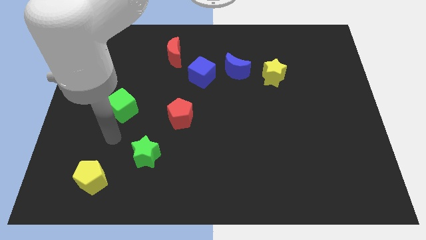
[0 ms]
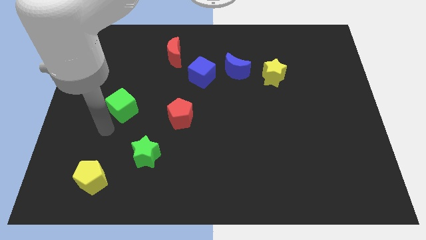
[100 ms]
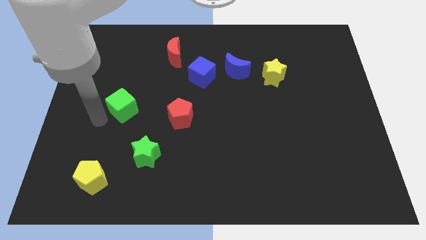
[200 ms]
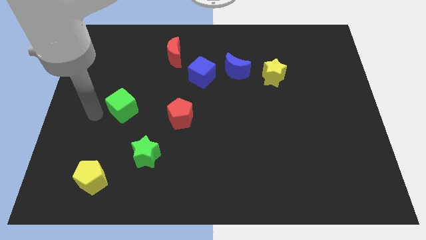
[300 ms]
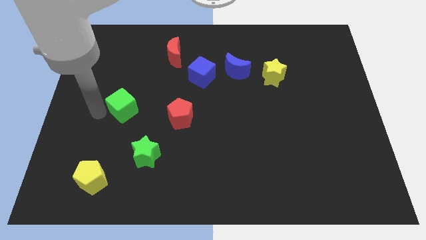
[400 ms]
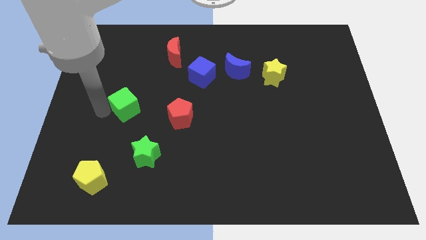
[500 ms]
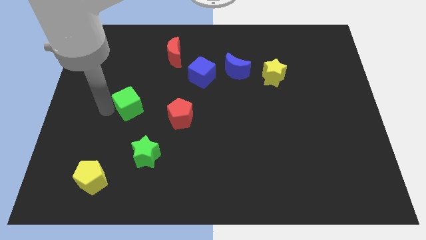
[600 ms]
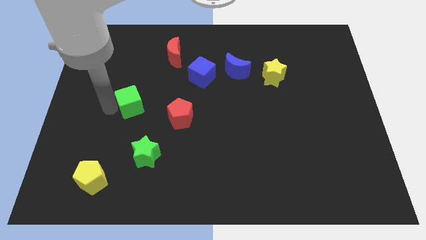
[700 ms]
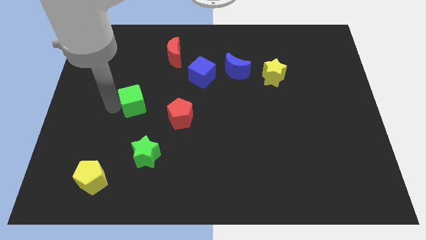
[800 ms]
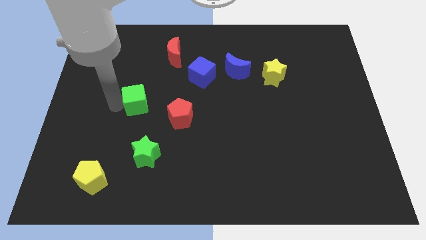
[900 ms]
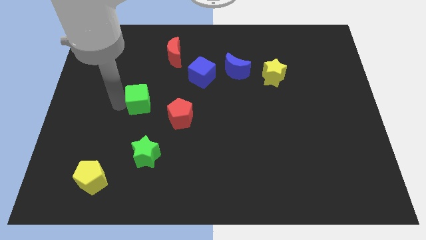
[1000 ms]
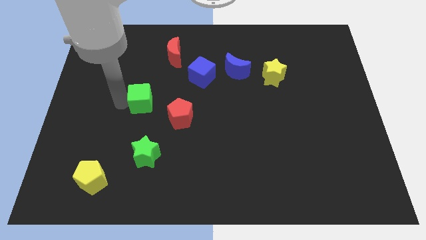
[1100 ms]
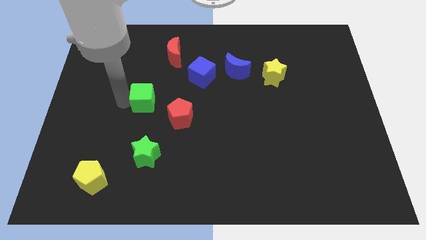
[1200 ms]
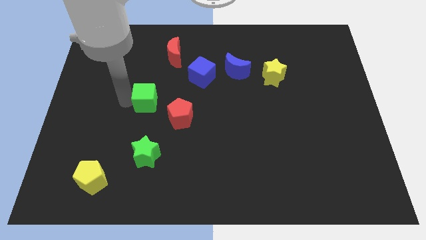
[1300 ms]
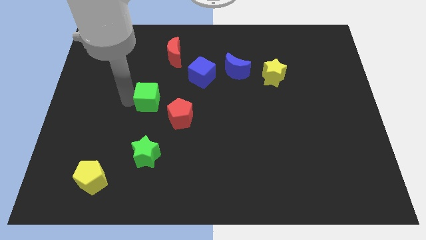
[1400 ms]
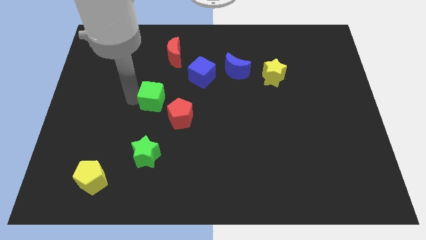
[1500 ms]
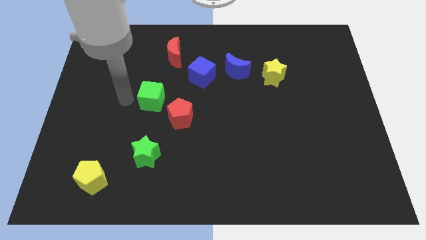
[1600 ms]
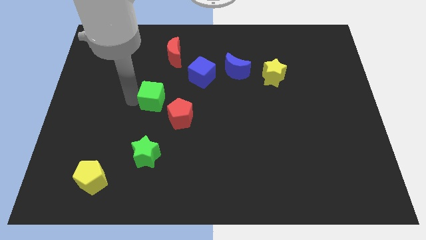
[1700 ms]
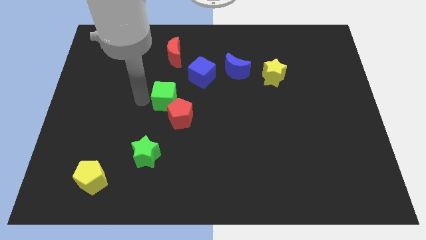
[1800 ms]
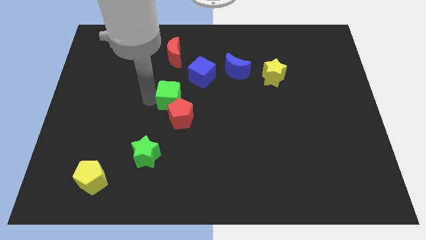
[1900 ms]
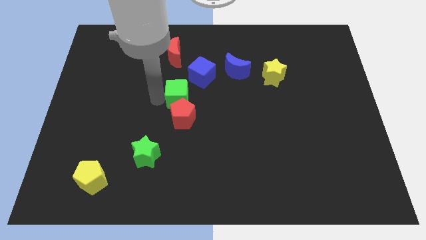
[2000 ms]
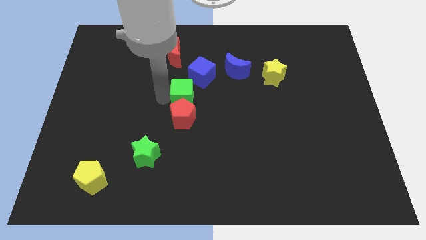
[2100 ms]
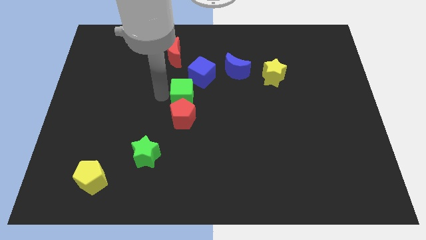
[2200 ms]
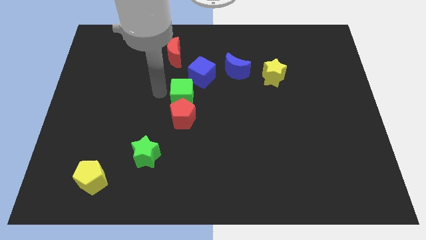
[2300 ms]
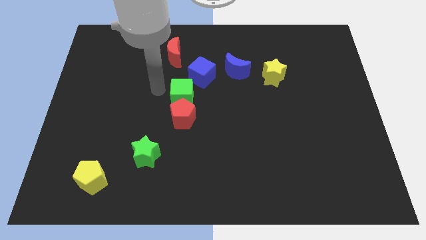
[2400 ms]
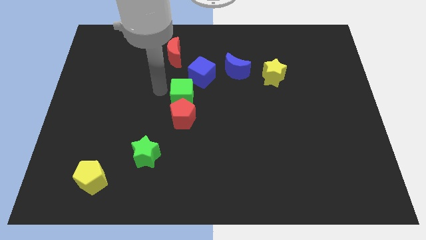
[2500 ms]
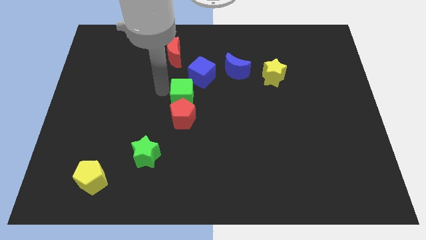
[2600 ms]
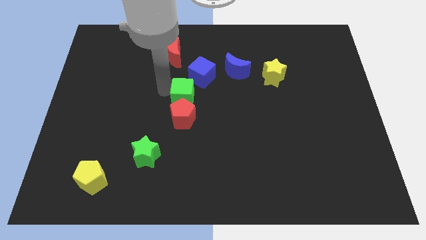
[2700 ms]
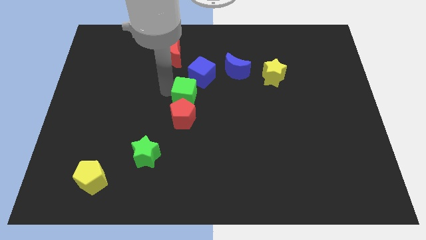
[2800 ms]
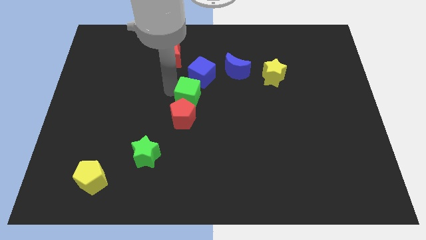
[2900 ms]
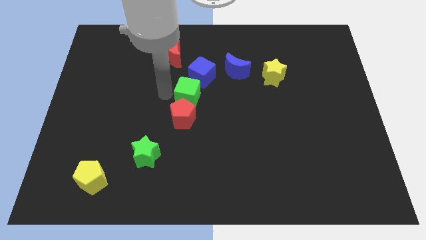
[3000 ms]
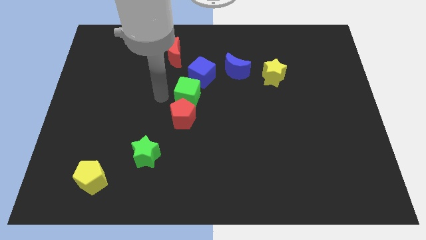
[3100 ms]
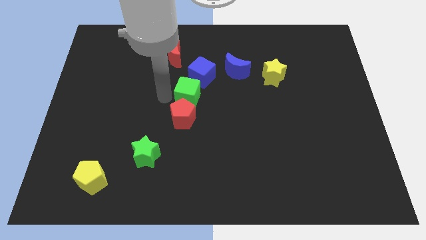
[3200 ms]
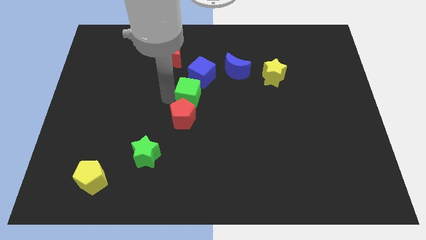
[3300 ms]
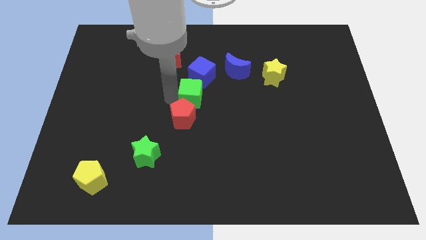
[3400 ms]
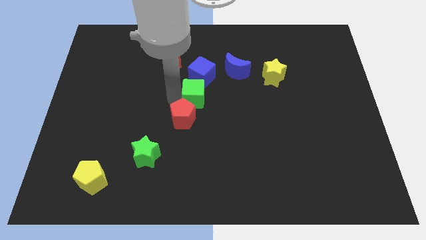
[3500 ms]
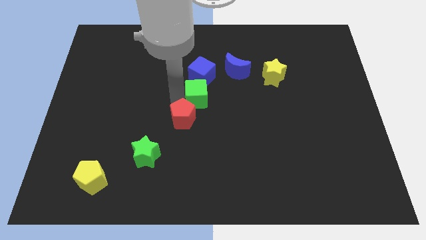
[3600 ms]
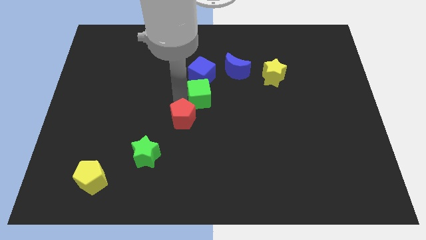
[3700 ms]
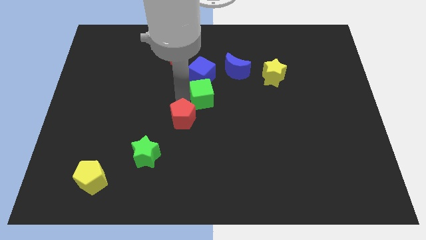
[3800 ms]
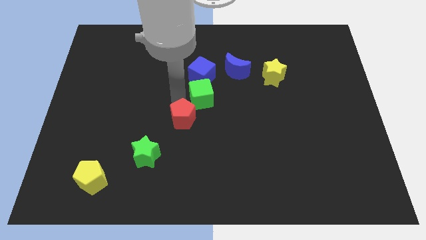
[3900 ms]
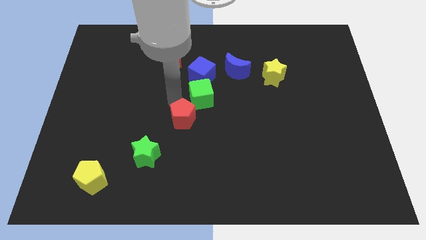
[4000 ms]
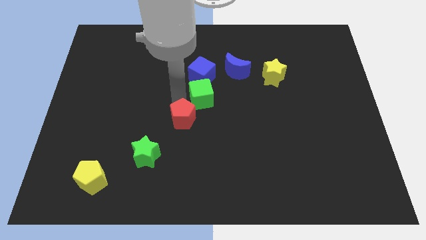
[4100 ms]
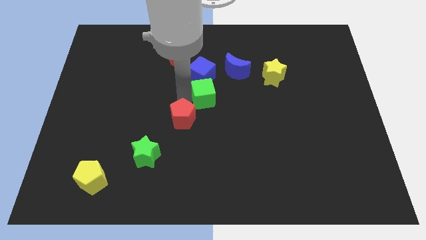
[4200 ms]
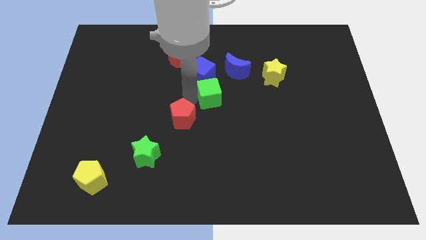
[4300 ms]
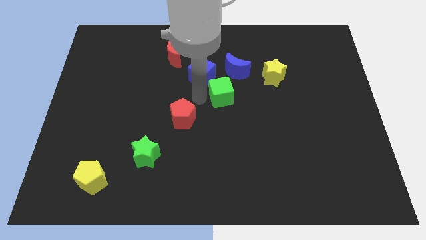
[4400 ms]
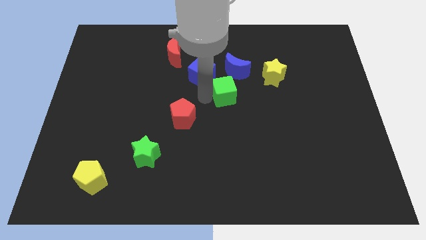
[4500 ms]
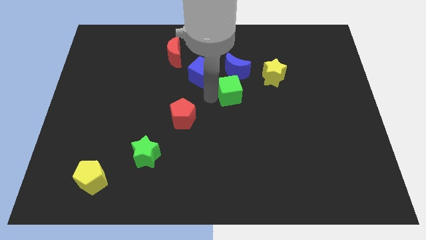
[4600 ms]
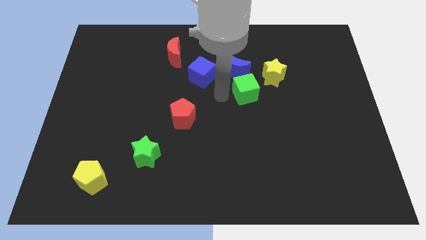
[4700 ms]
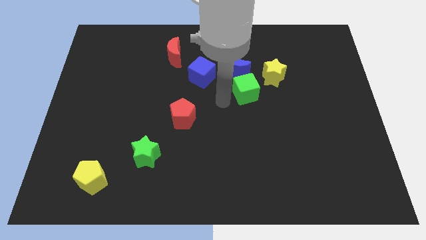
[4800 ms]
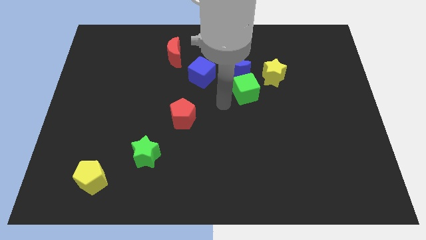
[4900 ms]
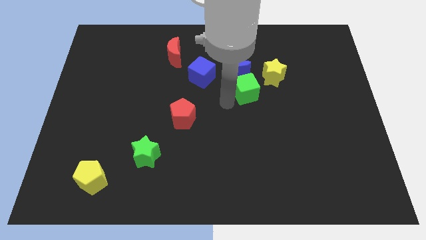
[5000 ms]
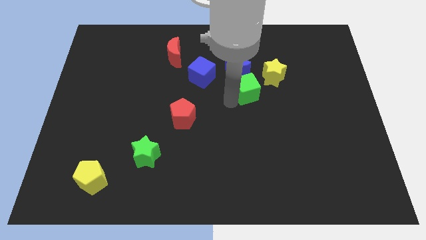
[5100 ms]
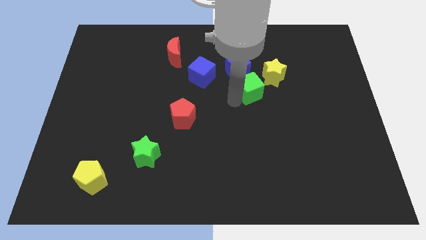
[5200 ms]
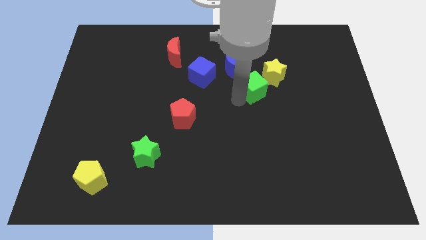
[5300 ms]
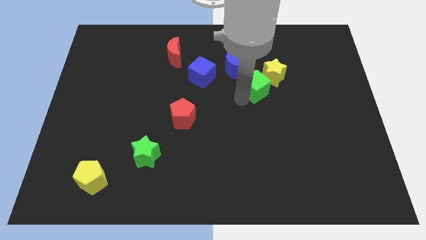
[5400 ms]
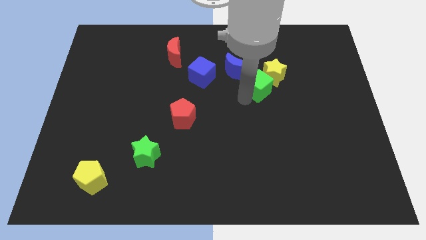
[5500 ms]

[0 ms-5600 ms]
slide the green cube next to the yellow star

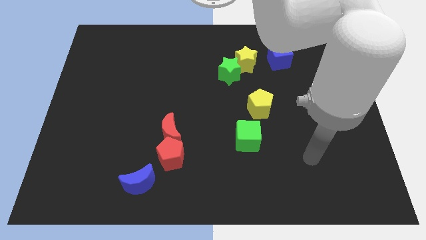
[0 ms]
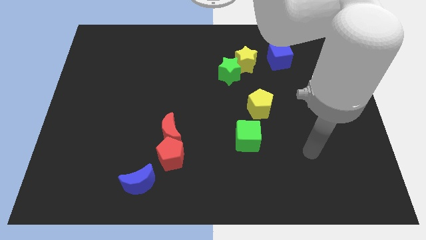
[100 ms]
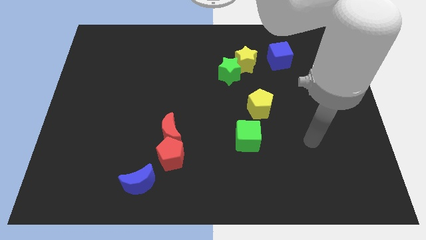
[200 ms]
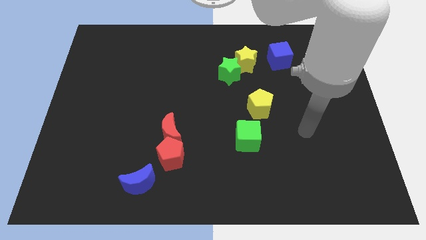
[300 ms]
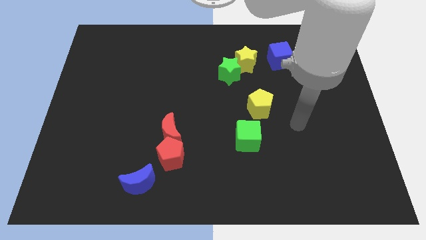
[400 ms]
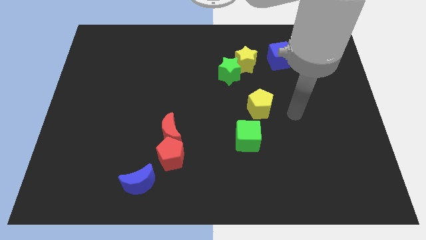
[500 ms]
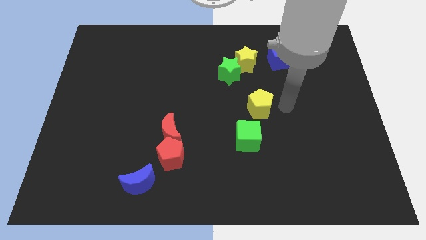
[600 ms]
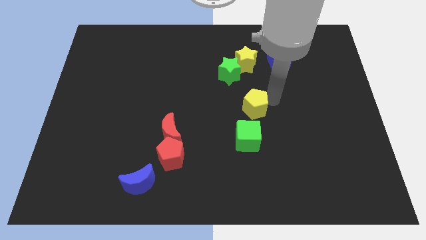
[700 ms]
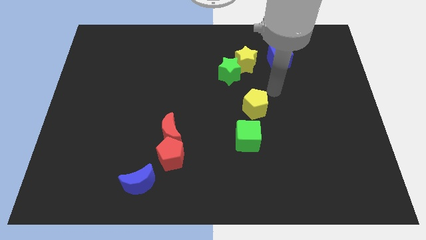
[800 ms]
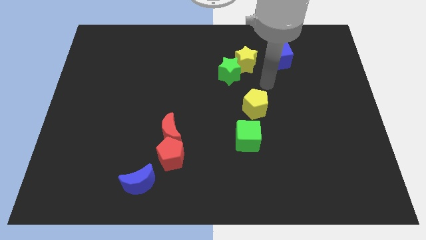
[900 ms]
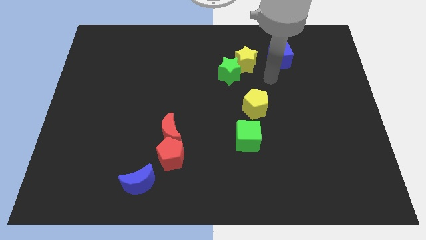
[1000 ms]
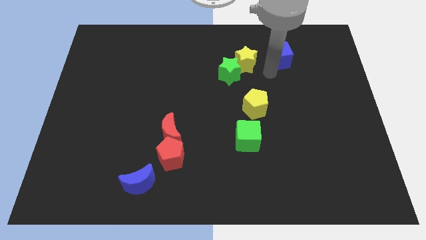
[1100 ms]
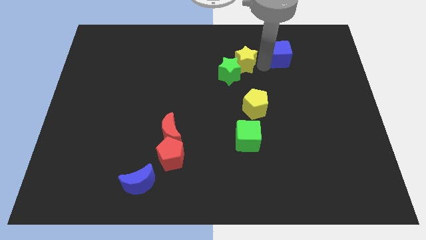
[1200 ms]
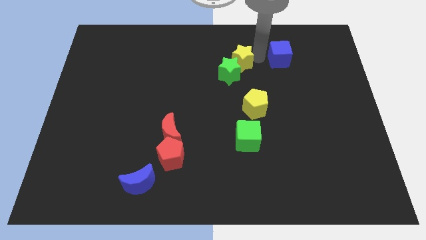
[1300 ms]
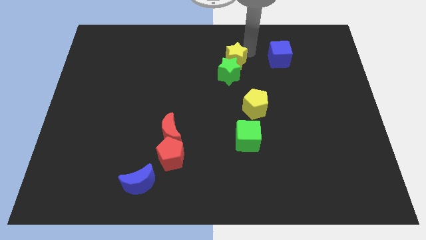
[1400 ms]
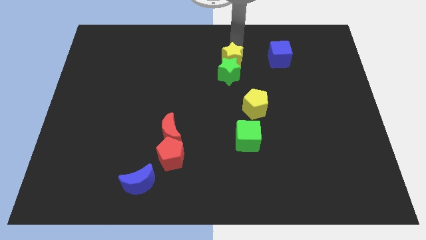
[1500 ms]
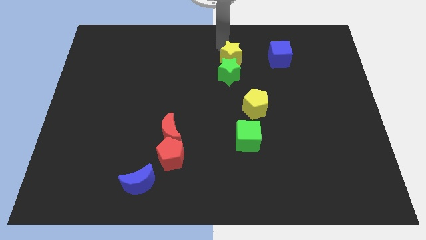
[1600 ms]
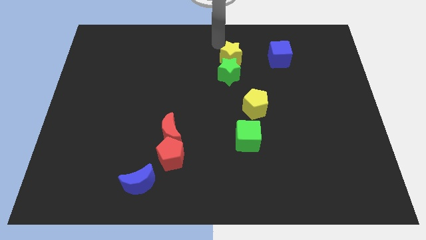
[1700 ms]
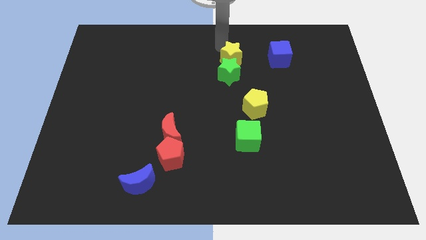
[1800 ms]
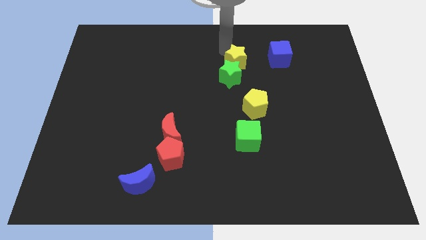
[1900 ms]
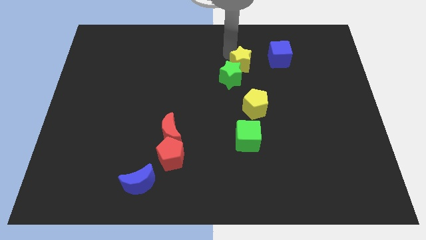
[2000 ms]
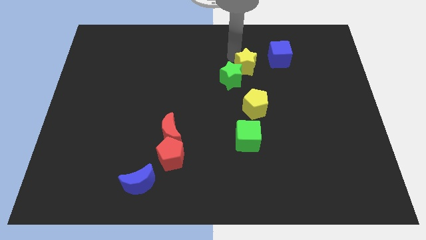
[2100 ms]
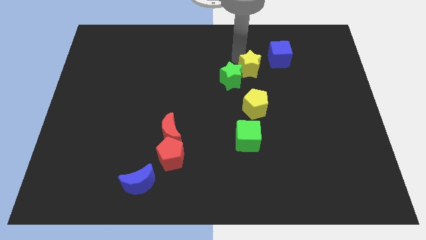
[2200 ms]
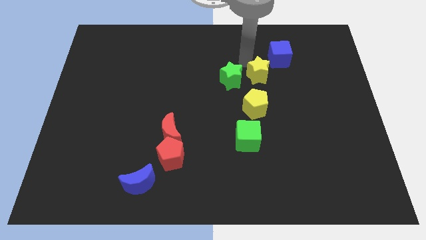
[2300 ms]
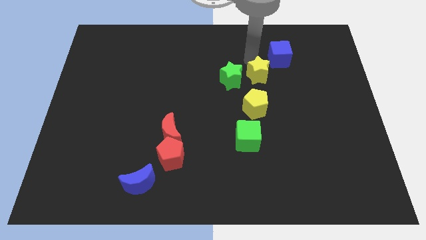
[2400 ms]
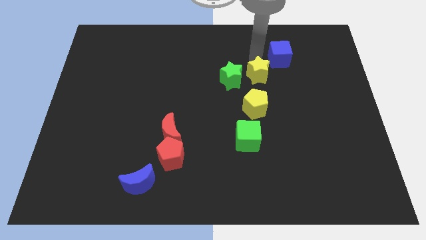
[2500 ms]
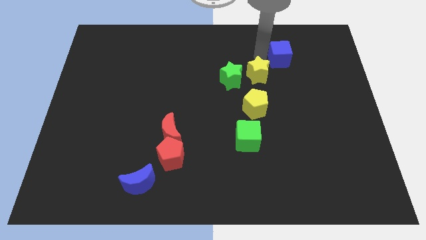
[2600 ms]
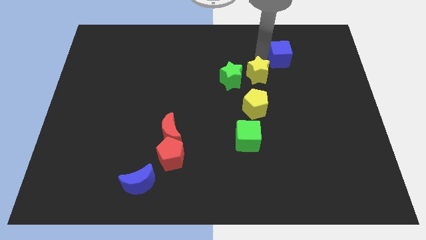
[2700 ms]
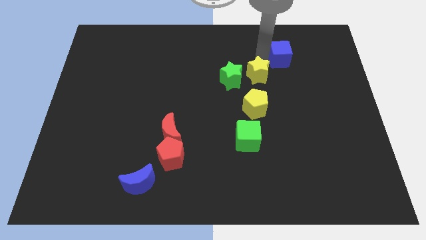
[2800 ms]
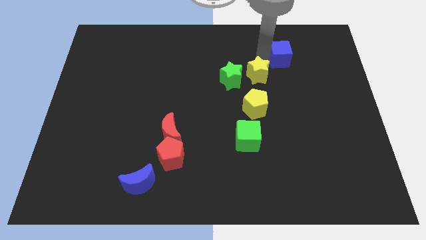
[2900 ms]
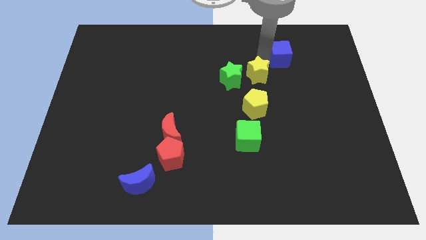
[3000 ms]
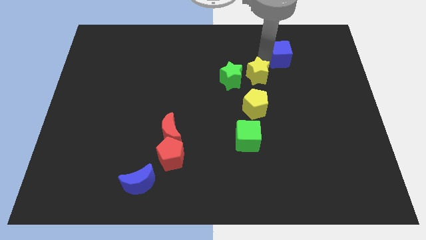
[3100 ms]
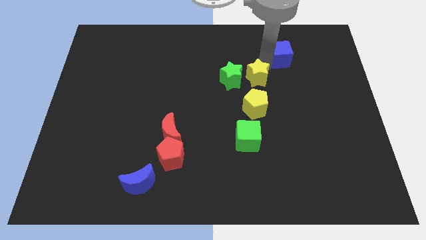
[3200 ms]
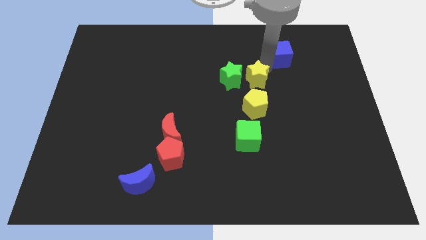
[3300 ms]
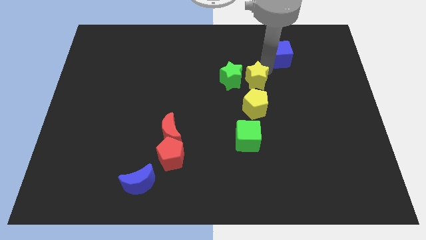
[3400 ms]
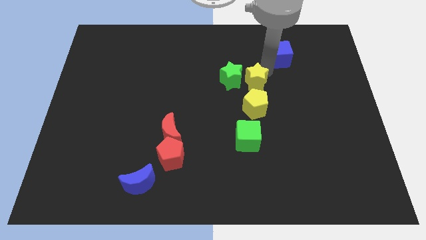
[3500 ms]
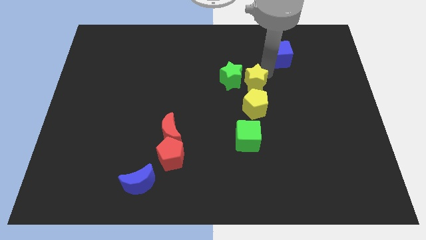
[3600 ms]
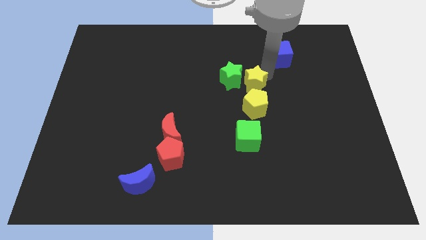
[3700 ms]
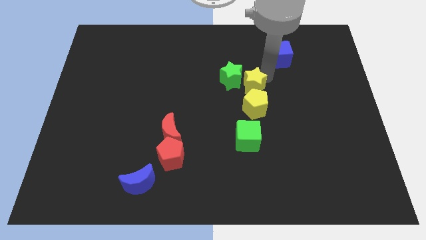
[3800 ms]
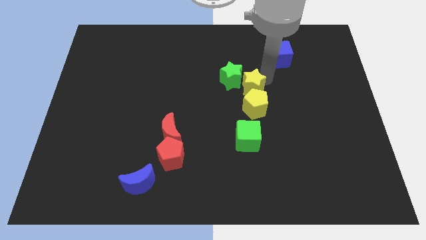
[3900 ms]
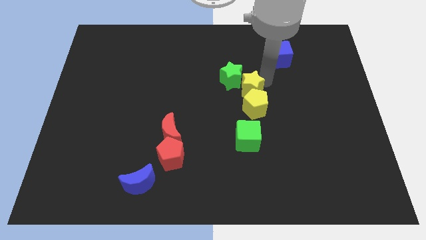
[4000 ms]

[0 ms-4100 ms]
slide the yellow star next to the yellow pentagon
